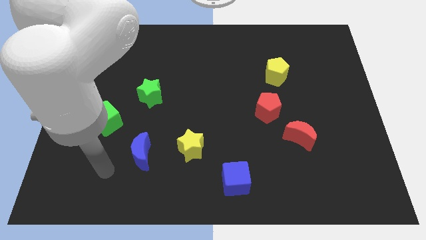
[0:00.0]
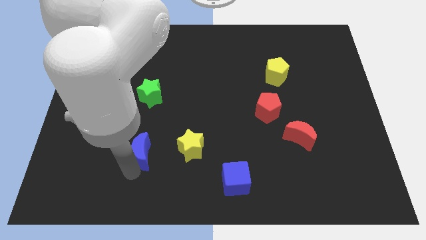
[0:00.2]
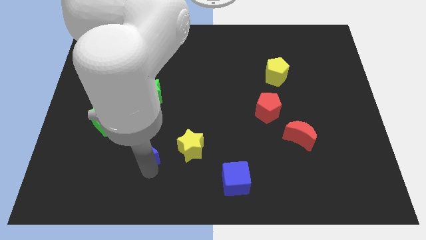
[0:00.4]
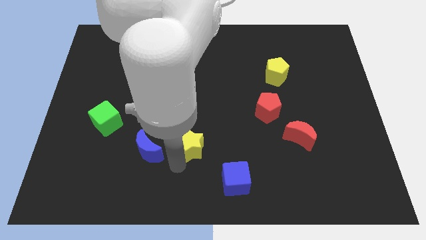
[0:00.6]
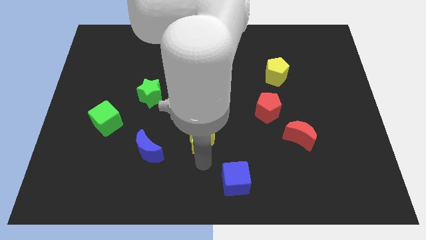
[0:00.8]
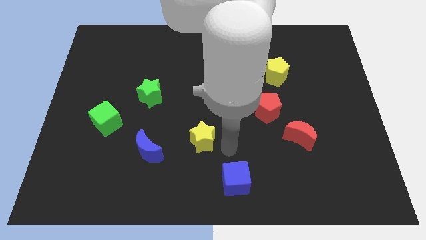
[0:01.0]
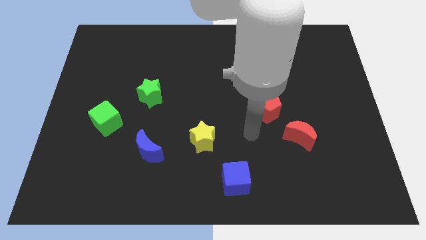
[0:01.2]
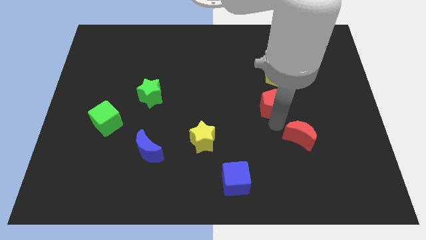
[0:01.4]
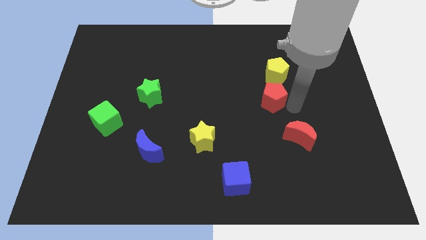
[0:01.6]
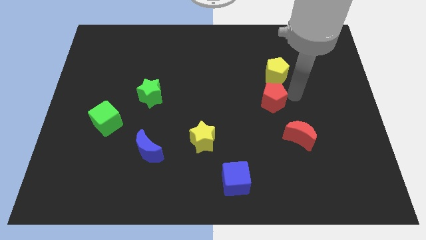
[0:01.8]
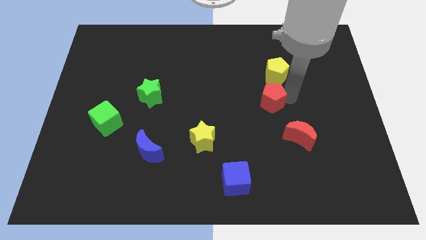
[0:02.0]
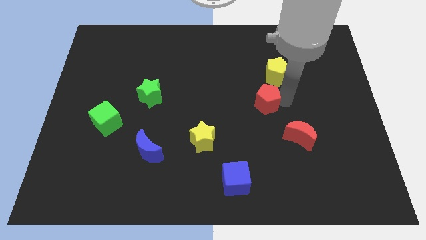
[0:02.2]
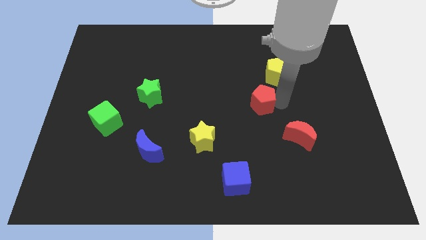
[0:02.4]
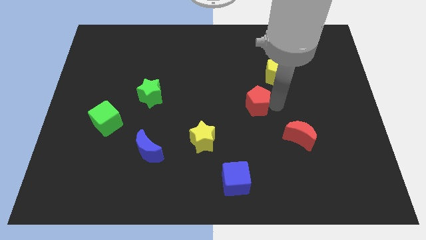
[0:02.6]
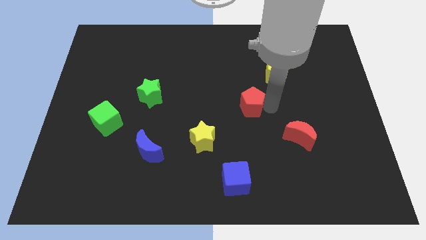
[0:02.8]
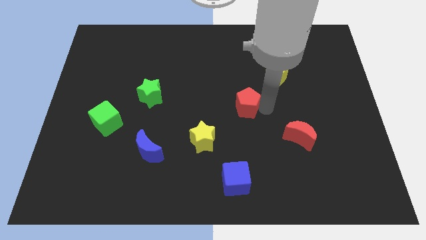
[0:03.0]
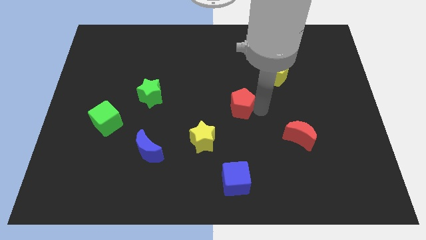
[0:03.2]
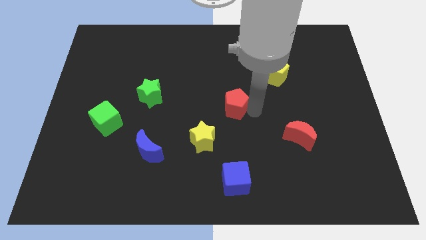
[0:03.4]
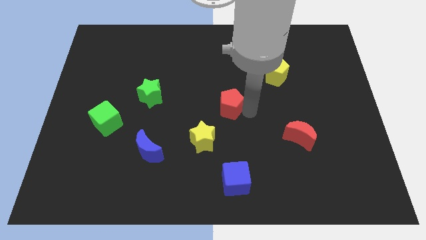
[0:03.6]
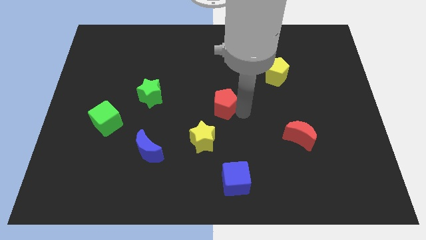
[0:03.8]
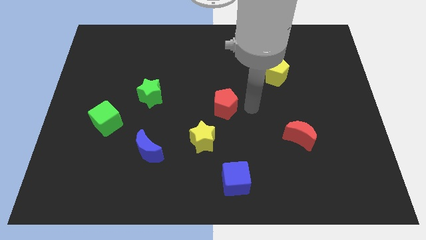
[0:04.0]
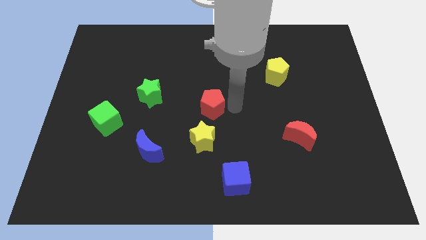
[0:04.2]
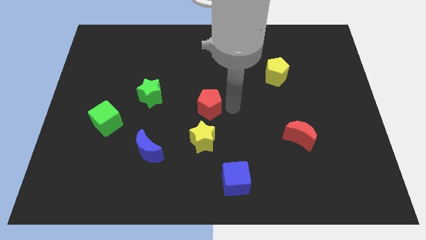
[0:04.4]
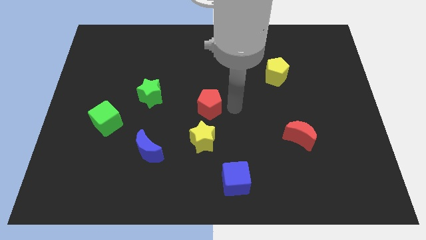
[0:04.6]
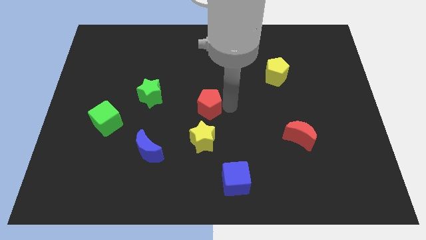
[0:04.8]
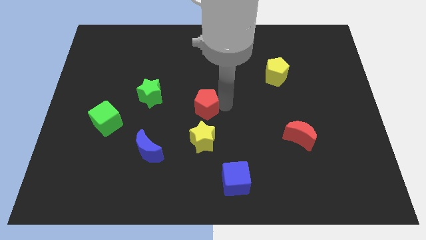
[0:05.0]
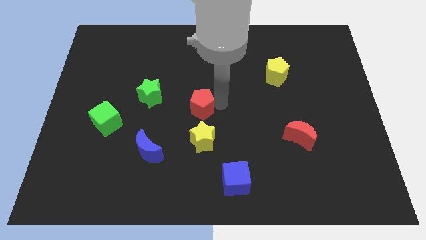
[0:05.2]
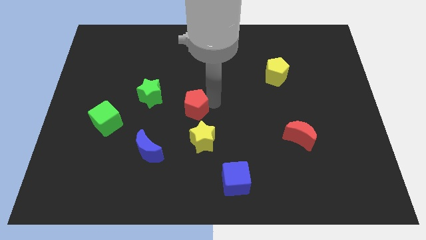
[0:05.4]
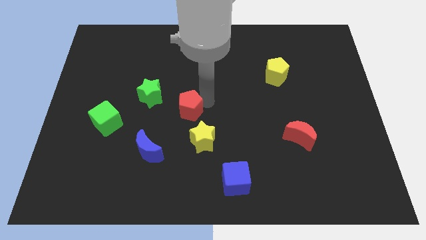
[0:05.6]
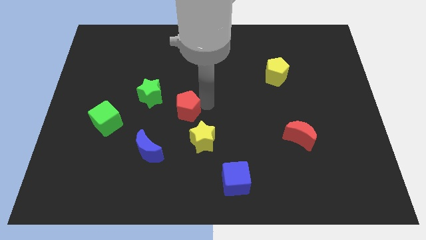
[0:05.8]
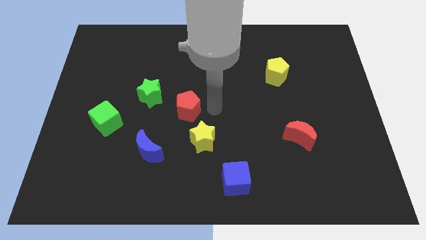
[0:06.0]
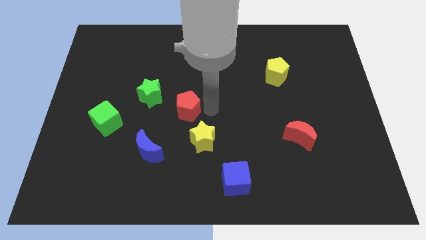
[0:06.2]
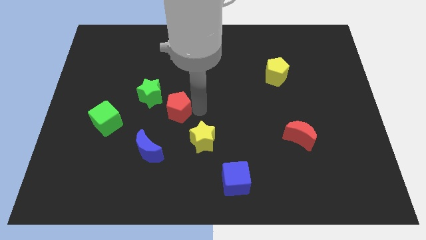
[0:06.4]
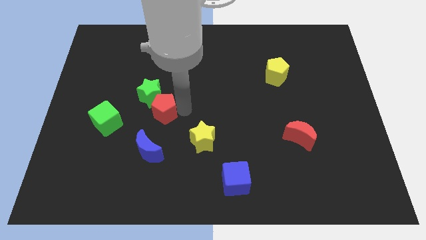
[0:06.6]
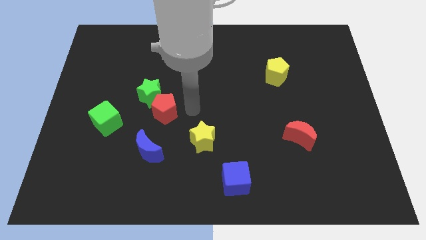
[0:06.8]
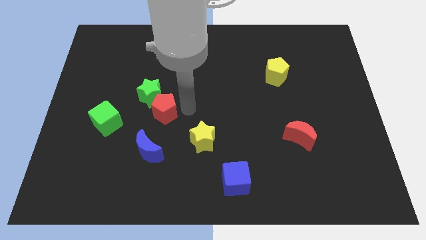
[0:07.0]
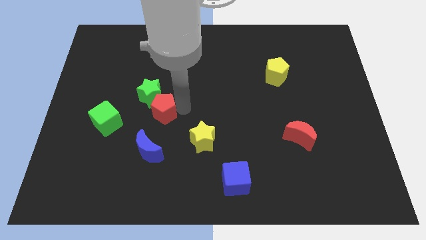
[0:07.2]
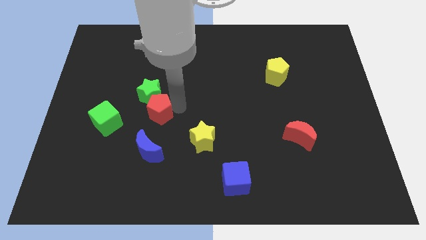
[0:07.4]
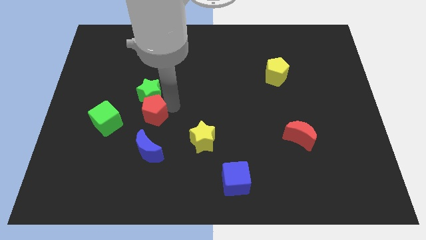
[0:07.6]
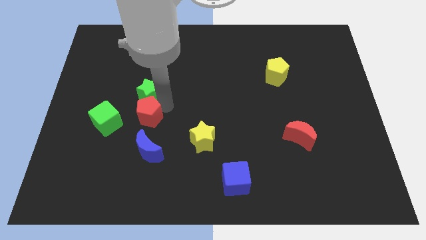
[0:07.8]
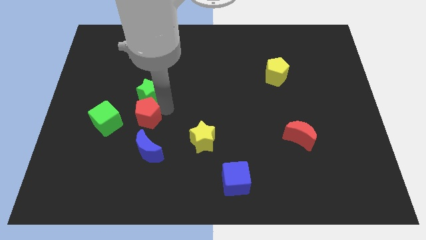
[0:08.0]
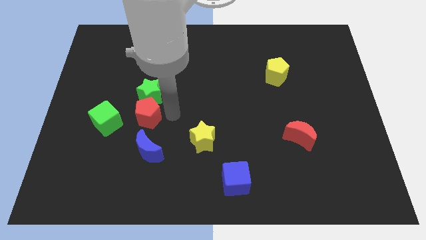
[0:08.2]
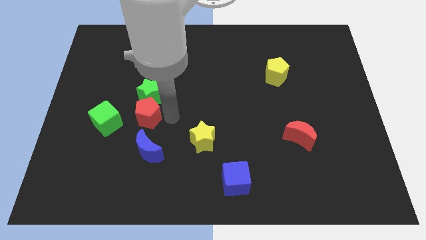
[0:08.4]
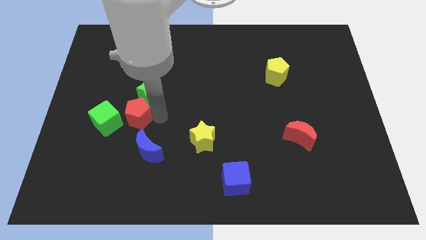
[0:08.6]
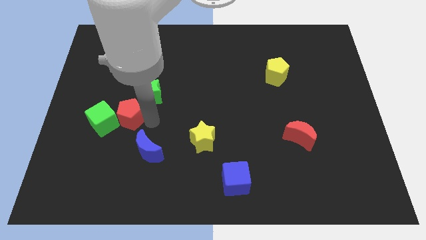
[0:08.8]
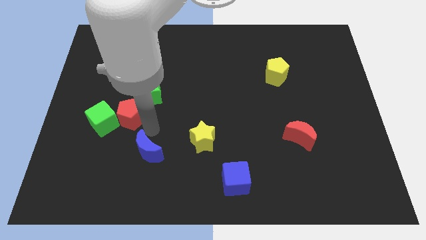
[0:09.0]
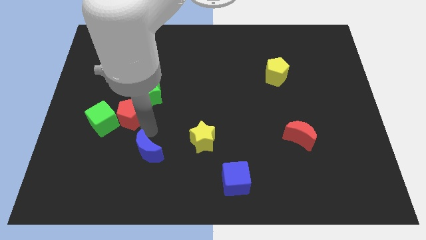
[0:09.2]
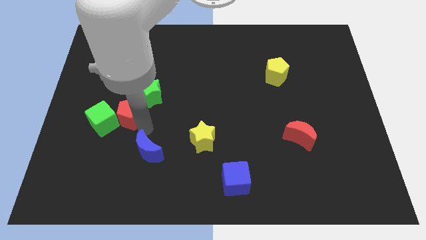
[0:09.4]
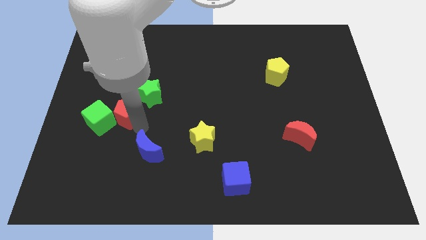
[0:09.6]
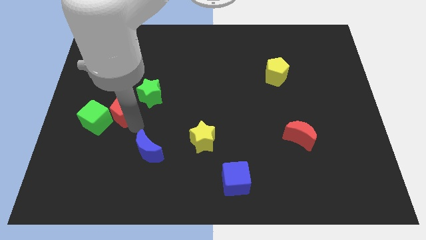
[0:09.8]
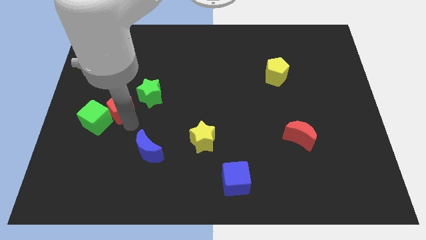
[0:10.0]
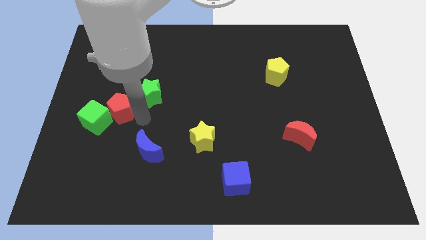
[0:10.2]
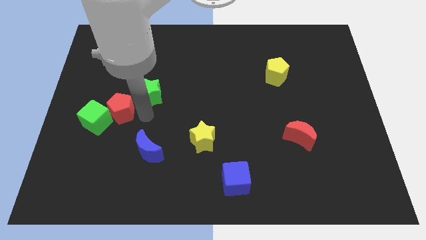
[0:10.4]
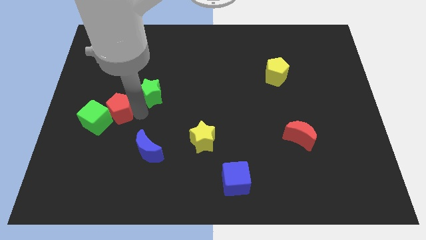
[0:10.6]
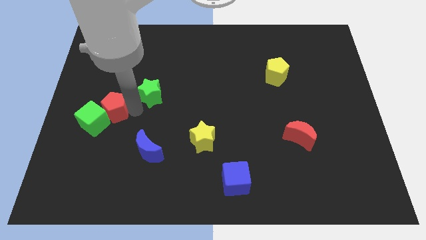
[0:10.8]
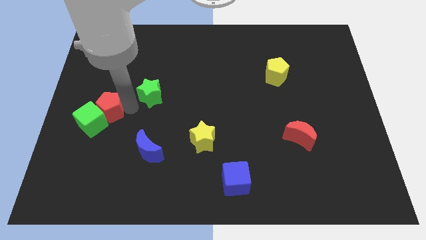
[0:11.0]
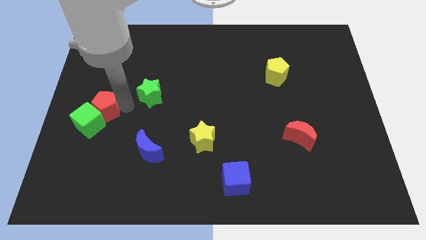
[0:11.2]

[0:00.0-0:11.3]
move the red pentagon to the left side of the board
